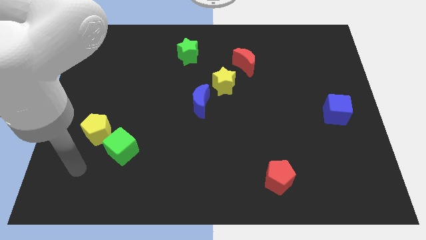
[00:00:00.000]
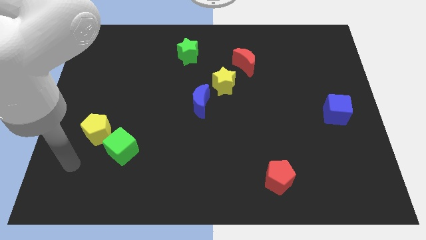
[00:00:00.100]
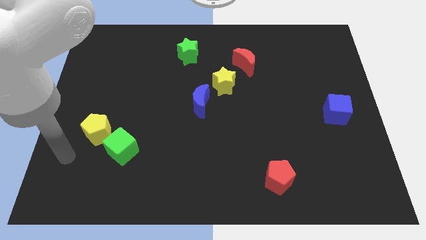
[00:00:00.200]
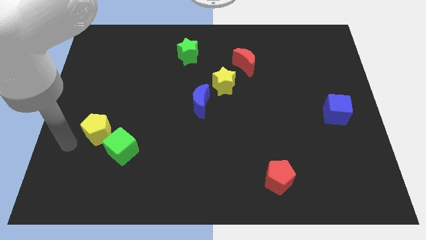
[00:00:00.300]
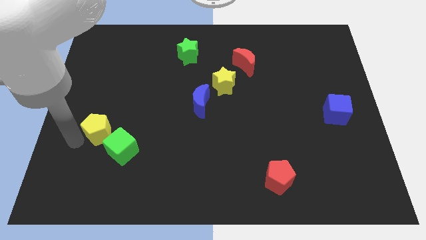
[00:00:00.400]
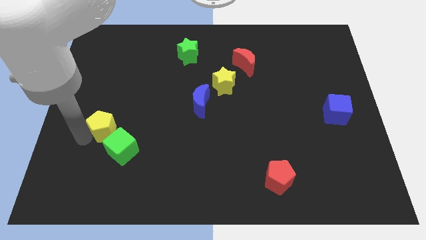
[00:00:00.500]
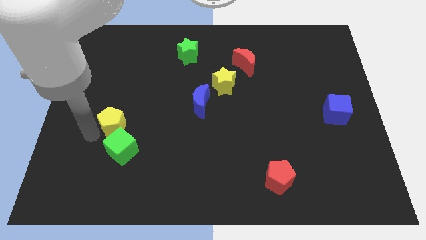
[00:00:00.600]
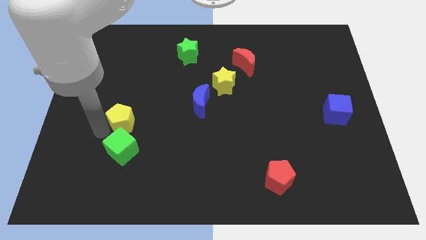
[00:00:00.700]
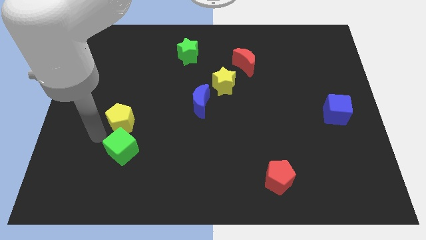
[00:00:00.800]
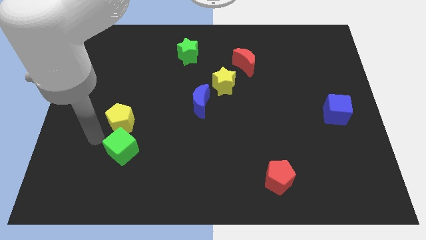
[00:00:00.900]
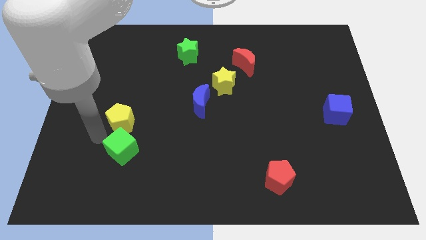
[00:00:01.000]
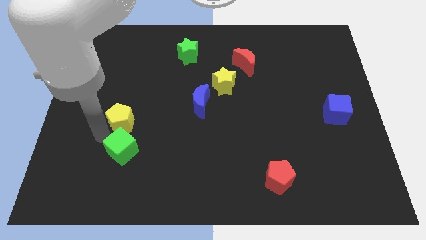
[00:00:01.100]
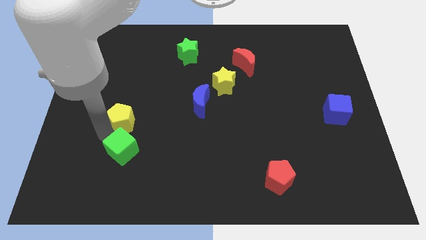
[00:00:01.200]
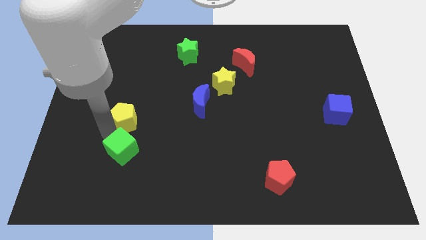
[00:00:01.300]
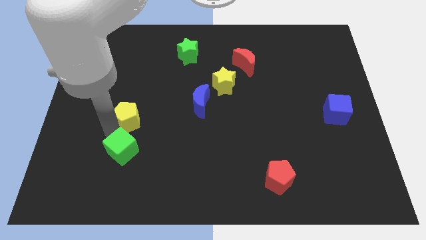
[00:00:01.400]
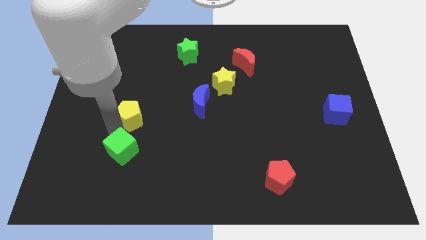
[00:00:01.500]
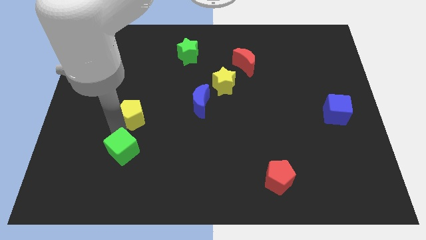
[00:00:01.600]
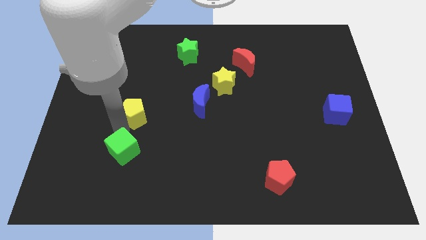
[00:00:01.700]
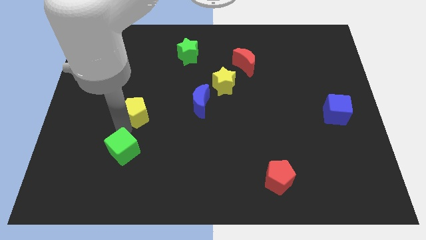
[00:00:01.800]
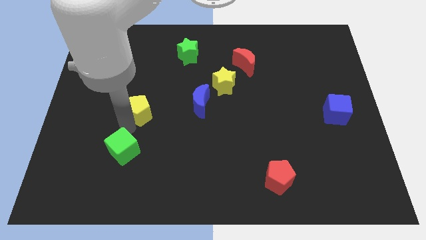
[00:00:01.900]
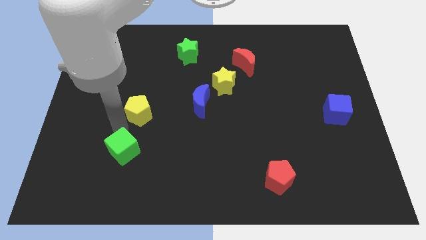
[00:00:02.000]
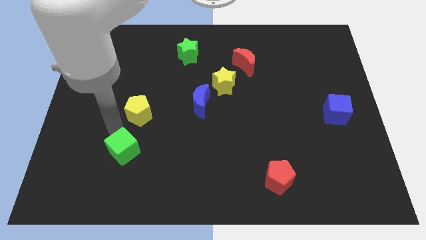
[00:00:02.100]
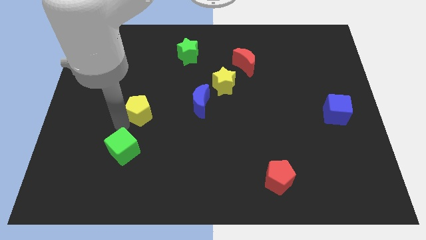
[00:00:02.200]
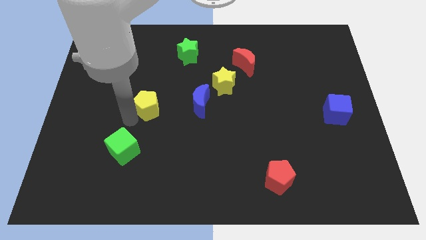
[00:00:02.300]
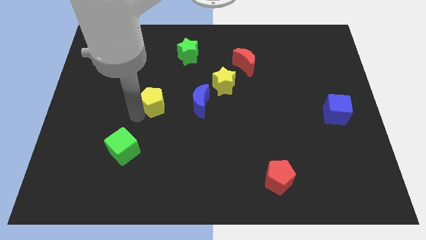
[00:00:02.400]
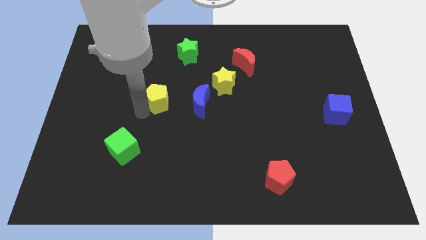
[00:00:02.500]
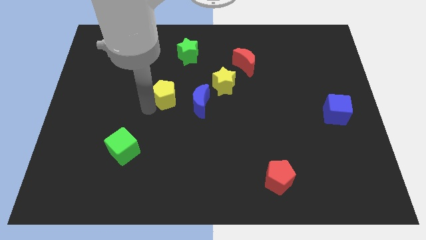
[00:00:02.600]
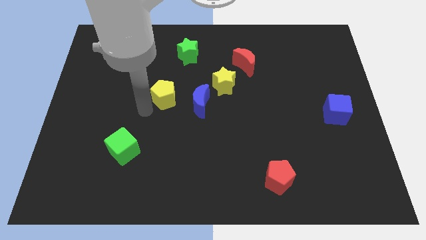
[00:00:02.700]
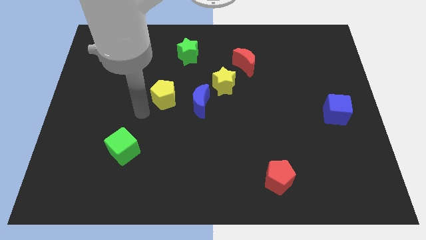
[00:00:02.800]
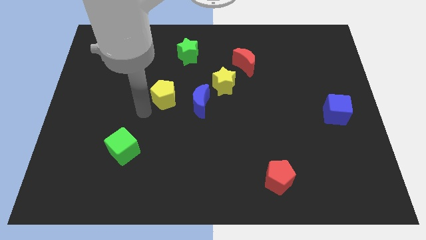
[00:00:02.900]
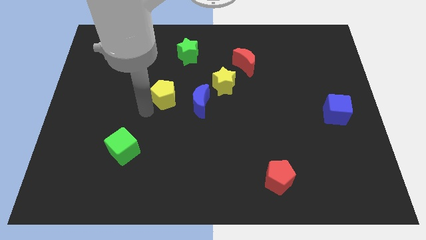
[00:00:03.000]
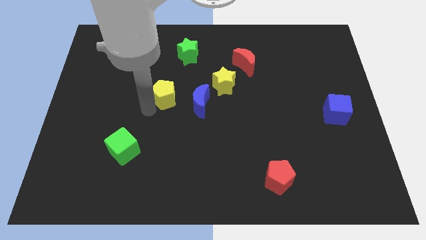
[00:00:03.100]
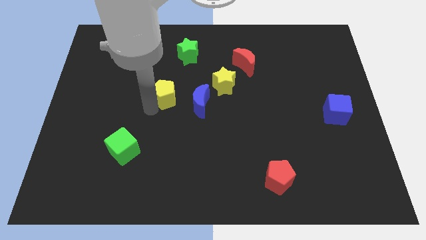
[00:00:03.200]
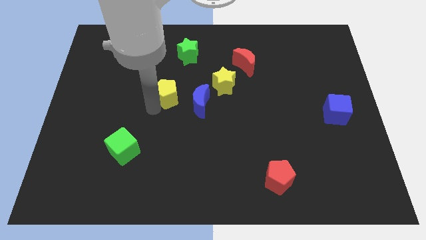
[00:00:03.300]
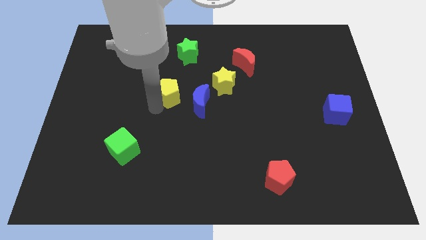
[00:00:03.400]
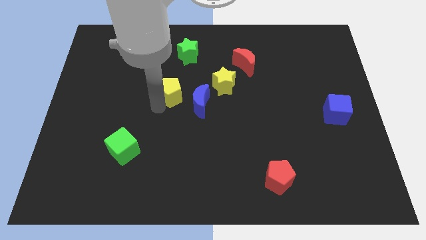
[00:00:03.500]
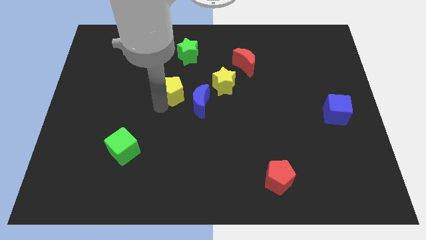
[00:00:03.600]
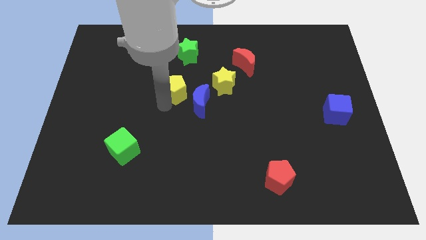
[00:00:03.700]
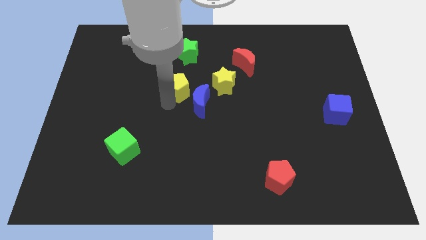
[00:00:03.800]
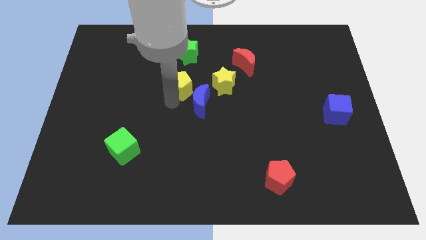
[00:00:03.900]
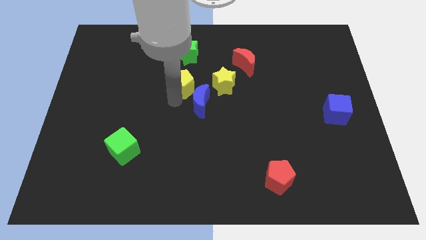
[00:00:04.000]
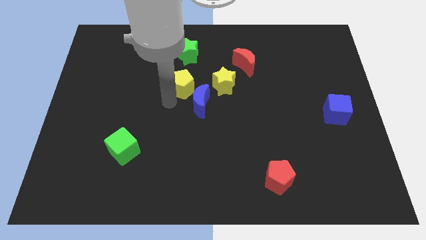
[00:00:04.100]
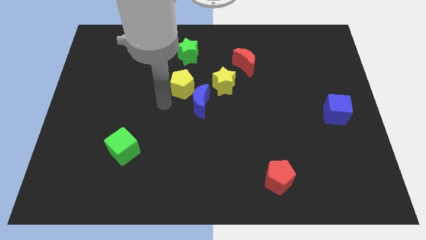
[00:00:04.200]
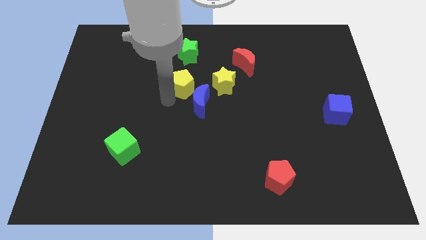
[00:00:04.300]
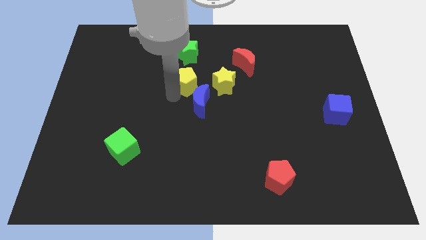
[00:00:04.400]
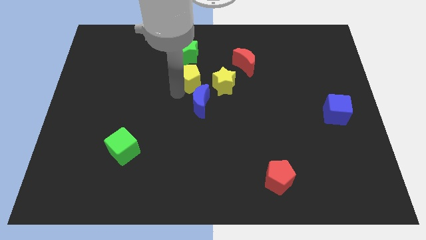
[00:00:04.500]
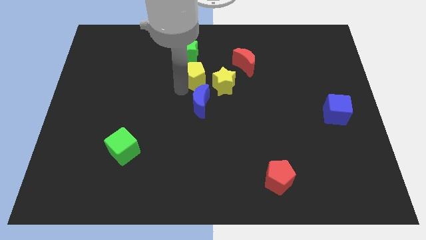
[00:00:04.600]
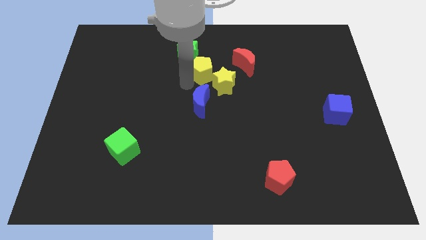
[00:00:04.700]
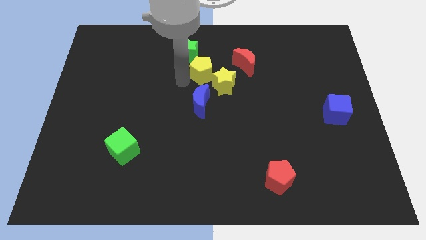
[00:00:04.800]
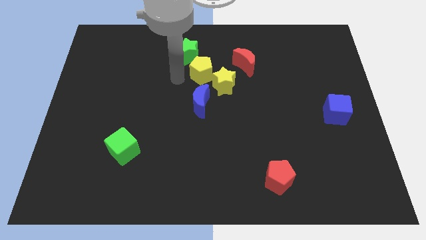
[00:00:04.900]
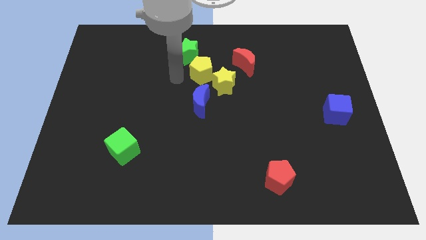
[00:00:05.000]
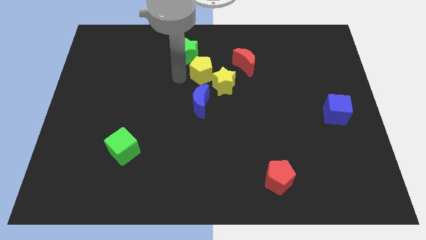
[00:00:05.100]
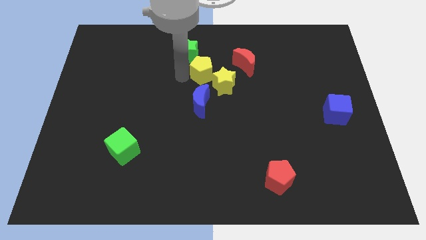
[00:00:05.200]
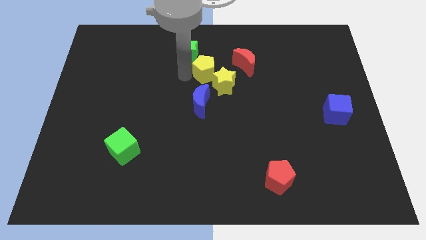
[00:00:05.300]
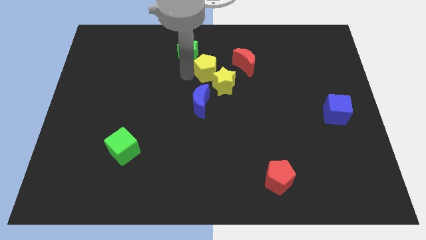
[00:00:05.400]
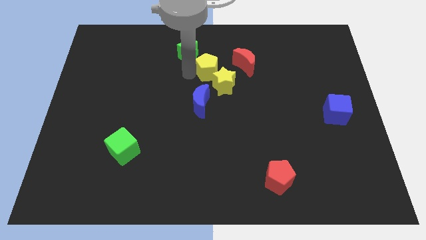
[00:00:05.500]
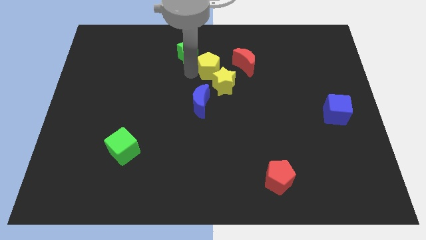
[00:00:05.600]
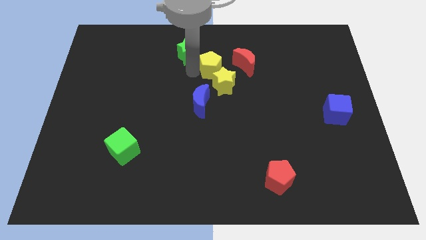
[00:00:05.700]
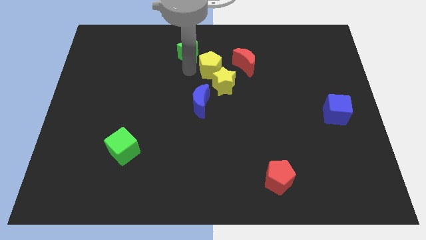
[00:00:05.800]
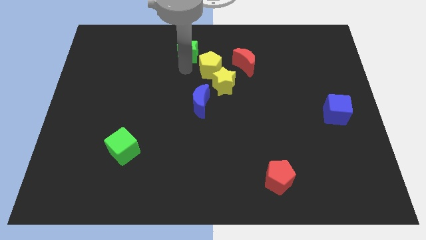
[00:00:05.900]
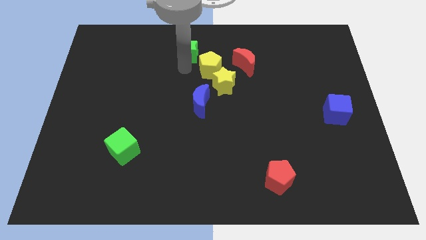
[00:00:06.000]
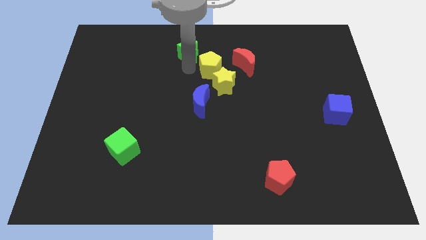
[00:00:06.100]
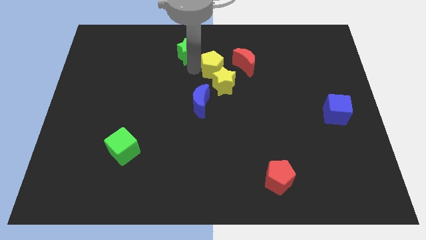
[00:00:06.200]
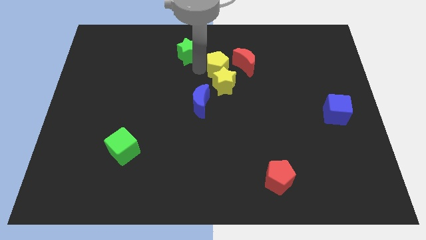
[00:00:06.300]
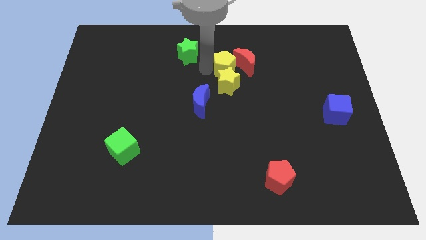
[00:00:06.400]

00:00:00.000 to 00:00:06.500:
put the yellow pentagon close to the red moon

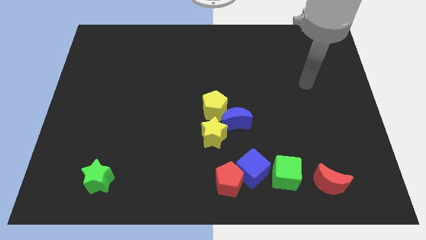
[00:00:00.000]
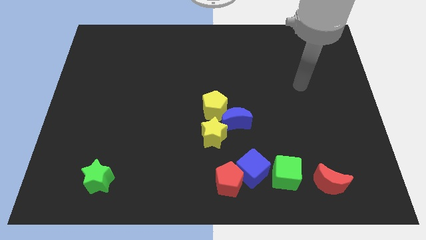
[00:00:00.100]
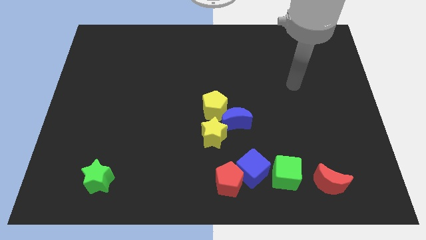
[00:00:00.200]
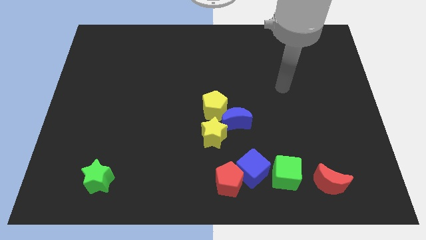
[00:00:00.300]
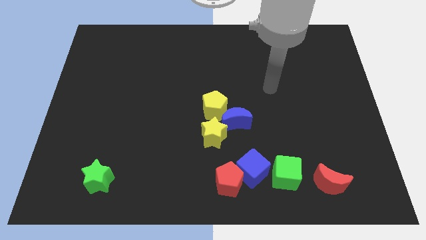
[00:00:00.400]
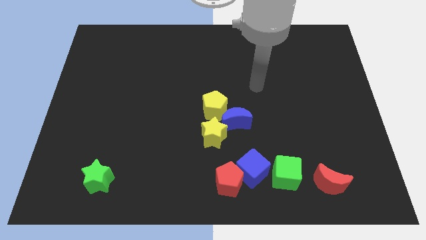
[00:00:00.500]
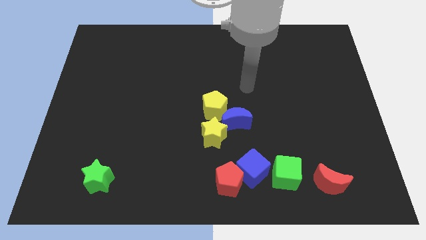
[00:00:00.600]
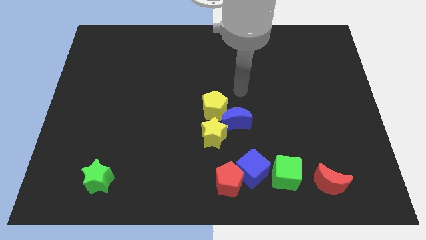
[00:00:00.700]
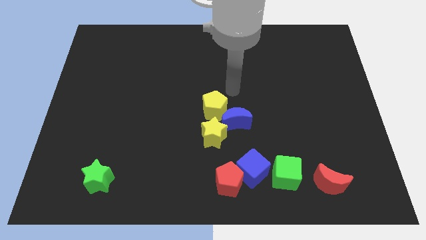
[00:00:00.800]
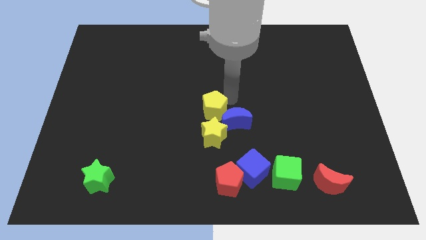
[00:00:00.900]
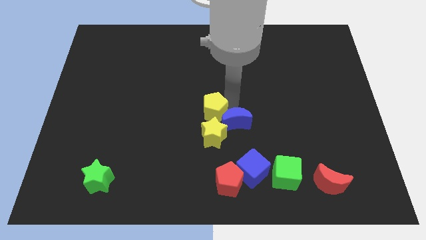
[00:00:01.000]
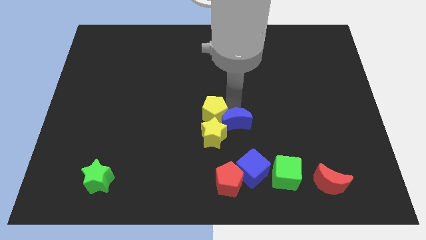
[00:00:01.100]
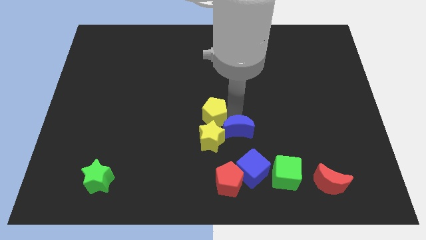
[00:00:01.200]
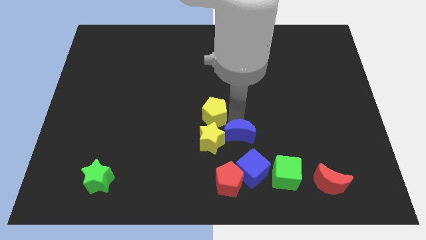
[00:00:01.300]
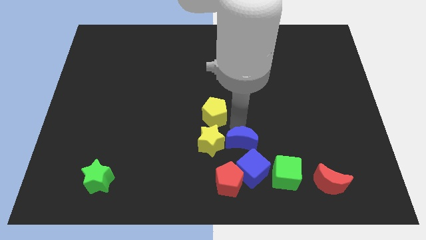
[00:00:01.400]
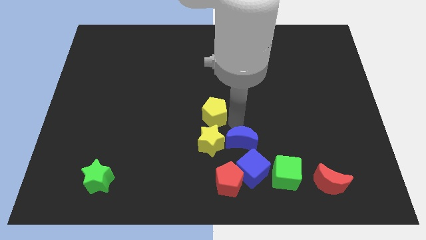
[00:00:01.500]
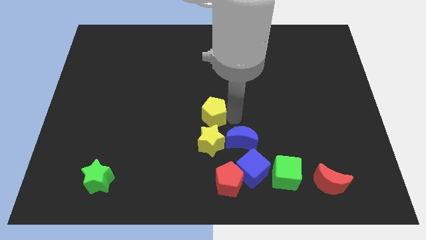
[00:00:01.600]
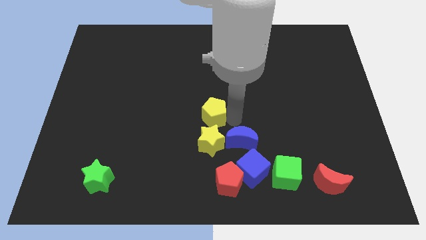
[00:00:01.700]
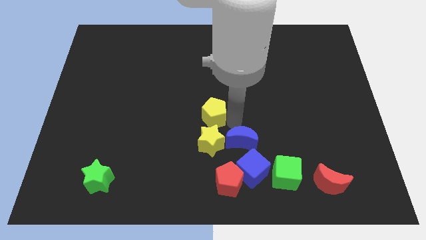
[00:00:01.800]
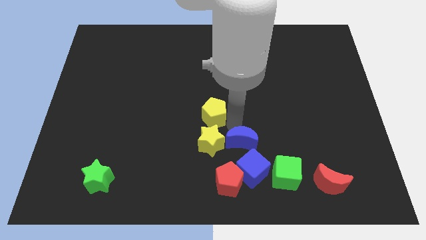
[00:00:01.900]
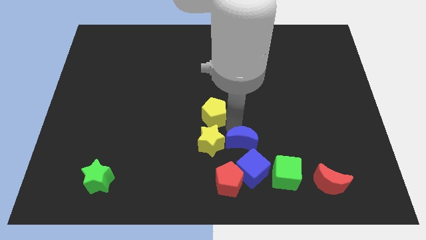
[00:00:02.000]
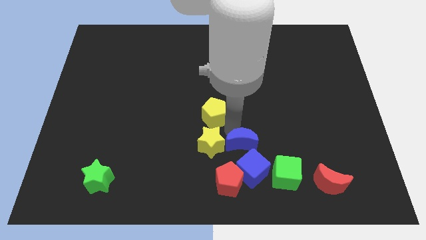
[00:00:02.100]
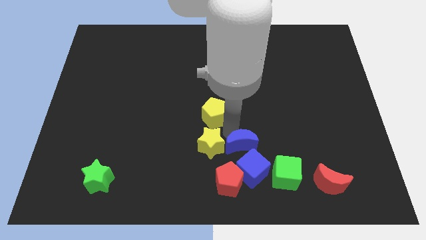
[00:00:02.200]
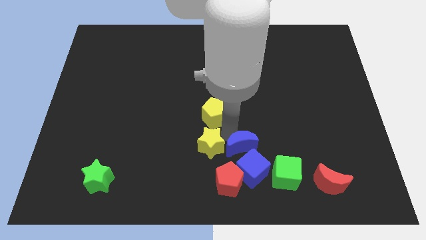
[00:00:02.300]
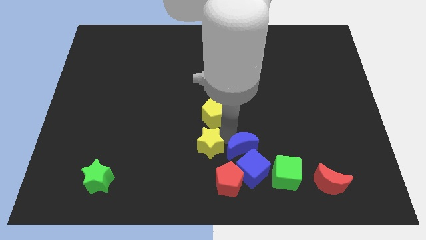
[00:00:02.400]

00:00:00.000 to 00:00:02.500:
put the blue moon to the blue cube
